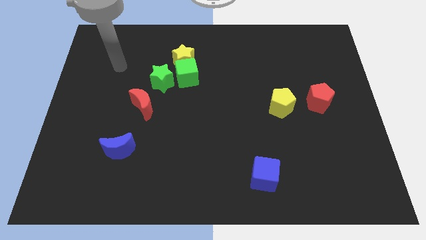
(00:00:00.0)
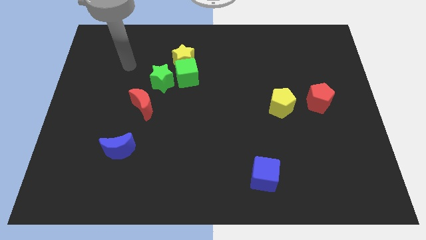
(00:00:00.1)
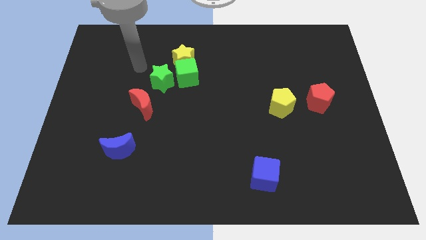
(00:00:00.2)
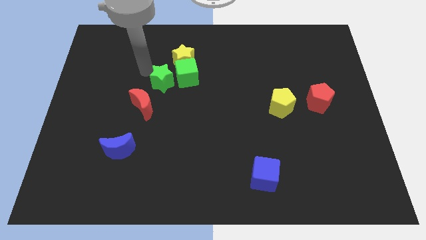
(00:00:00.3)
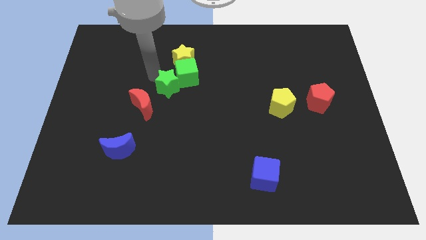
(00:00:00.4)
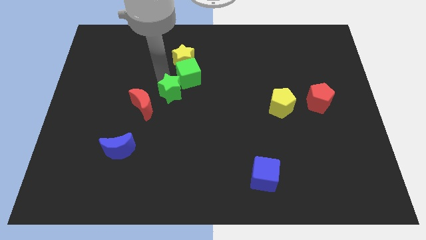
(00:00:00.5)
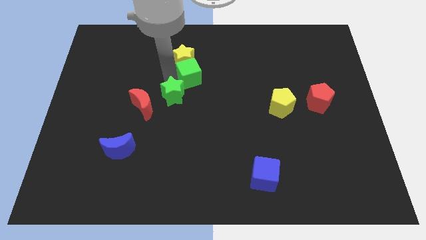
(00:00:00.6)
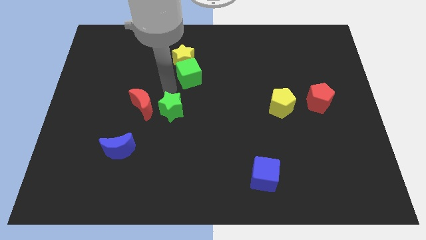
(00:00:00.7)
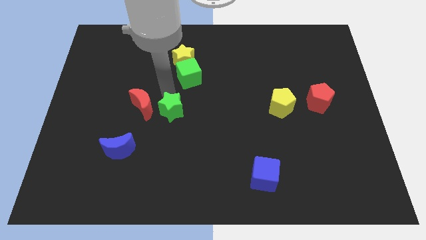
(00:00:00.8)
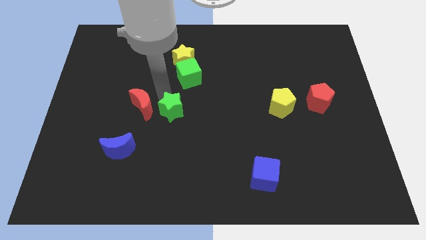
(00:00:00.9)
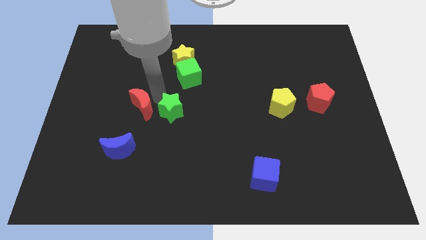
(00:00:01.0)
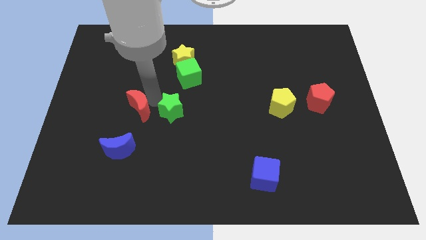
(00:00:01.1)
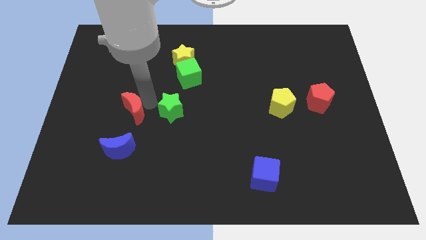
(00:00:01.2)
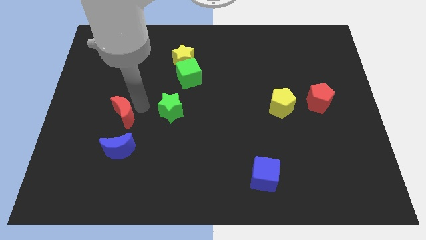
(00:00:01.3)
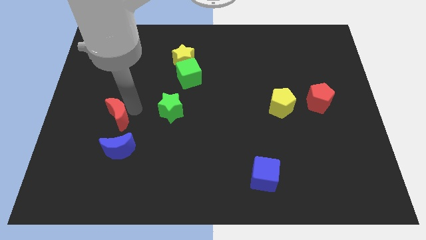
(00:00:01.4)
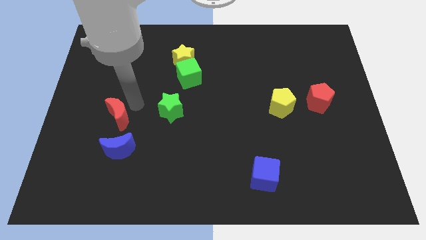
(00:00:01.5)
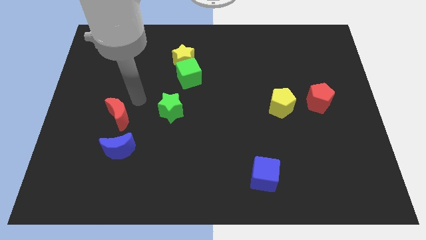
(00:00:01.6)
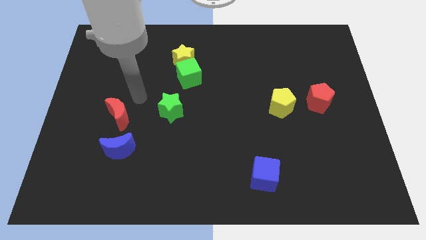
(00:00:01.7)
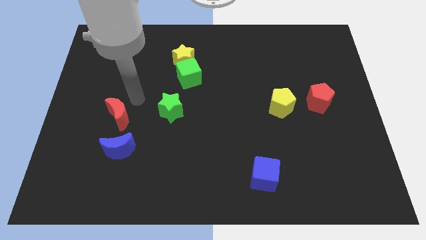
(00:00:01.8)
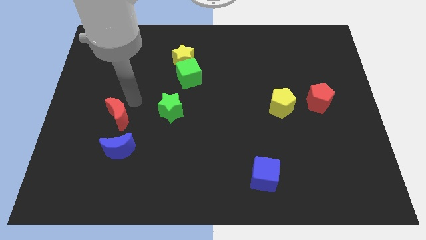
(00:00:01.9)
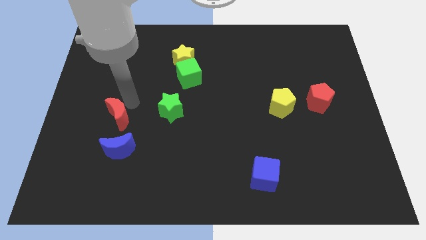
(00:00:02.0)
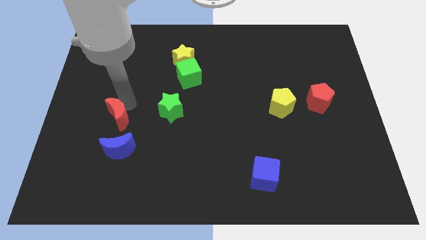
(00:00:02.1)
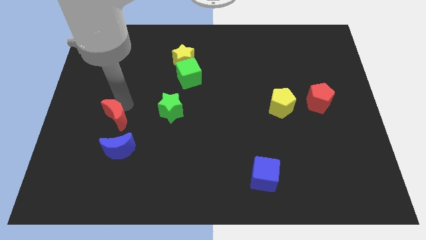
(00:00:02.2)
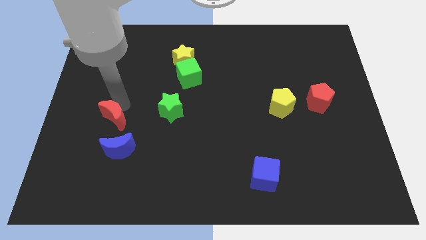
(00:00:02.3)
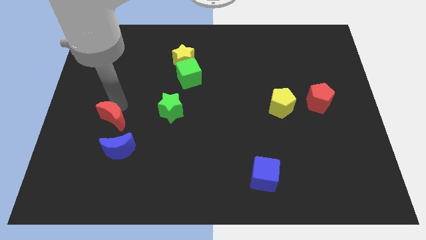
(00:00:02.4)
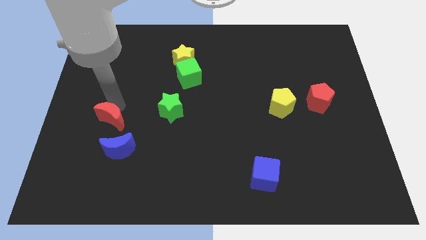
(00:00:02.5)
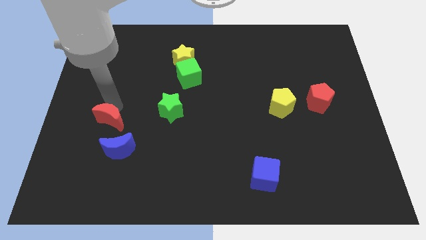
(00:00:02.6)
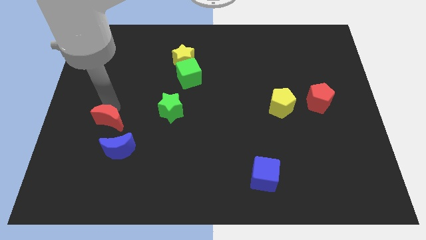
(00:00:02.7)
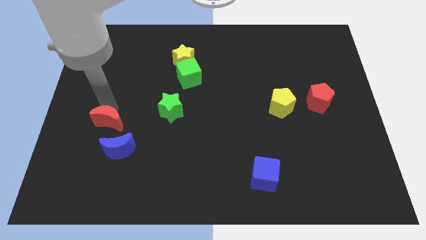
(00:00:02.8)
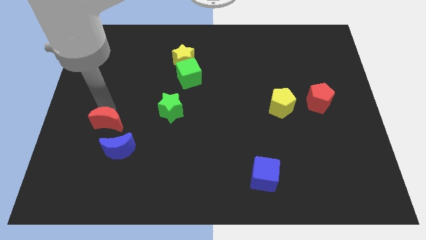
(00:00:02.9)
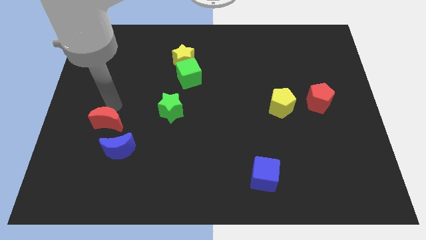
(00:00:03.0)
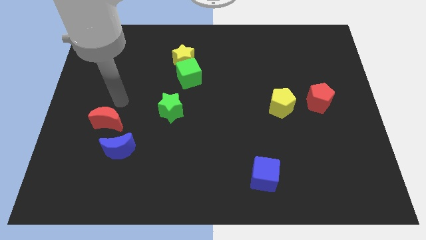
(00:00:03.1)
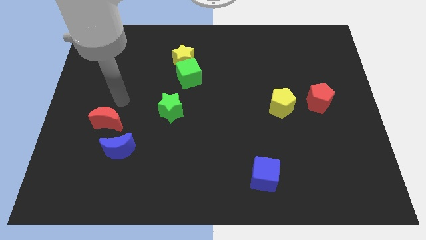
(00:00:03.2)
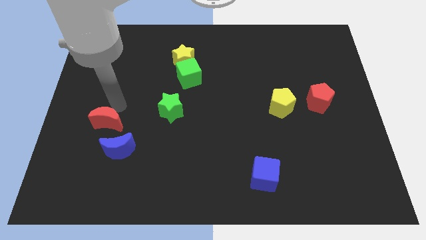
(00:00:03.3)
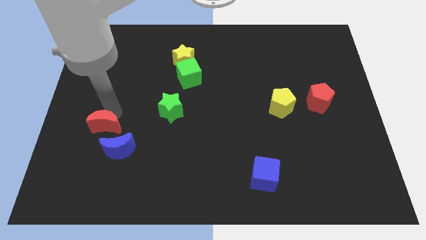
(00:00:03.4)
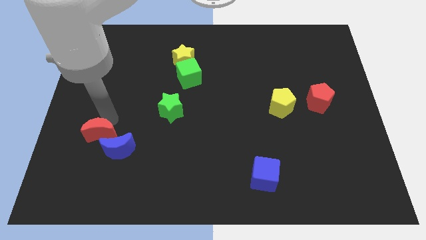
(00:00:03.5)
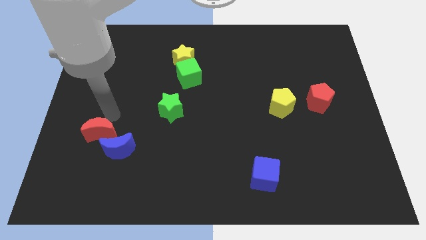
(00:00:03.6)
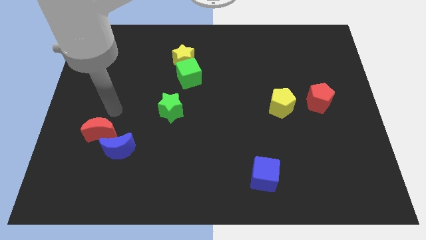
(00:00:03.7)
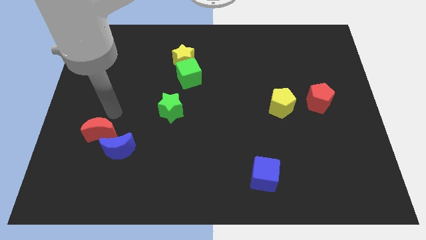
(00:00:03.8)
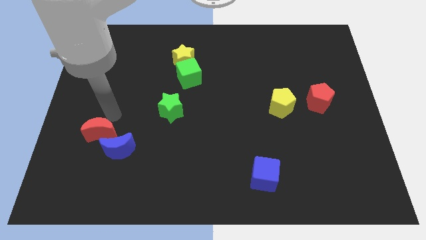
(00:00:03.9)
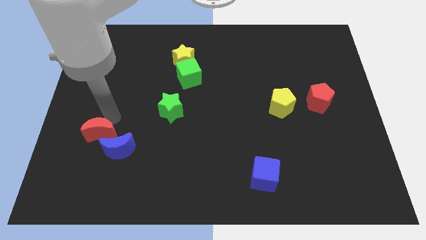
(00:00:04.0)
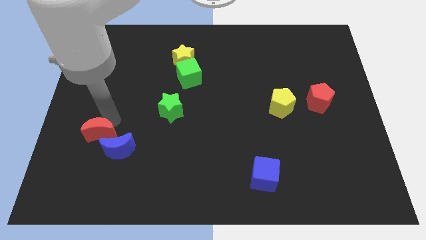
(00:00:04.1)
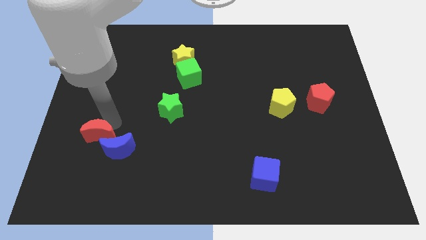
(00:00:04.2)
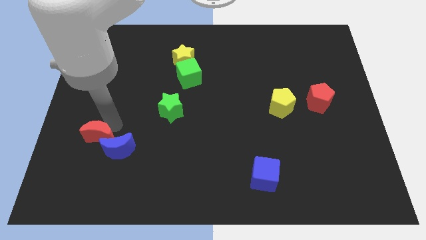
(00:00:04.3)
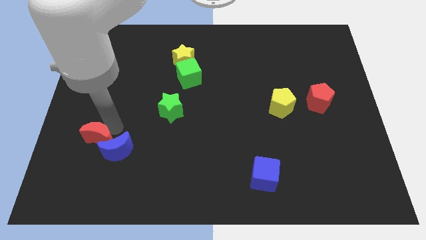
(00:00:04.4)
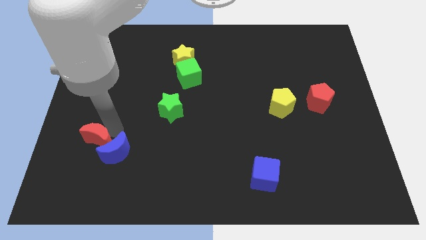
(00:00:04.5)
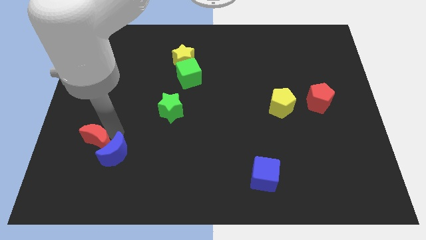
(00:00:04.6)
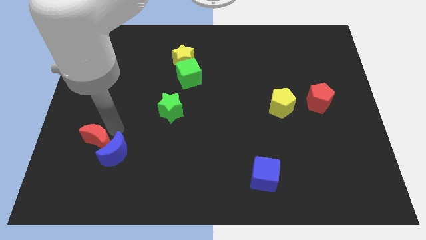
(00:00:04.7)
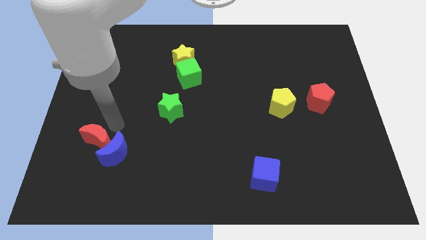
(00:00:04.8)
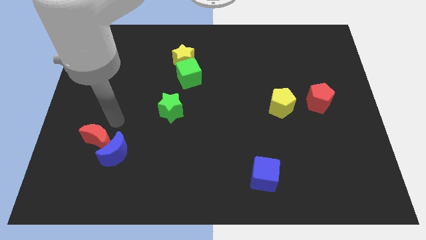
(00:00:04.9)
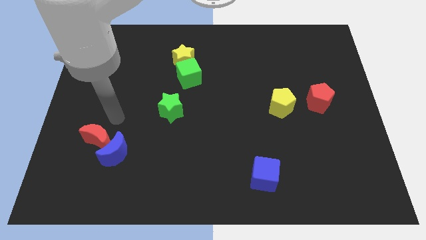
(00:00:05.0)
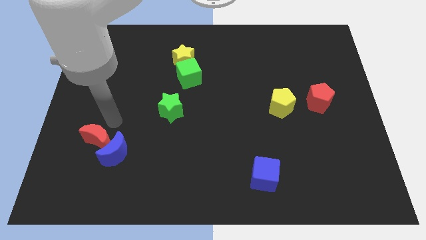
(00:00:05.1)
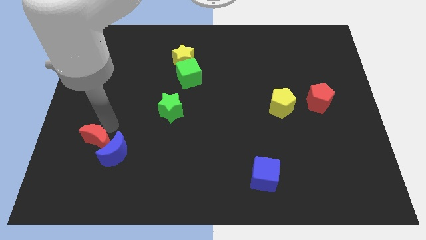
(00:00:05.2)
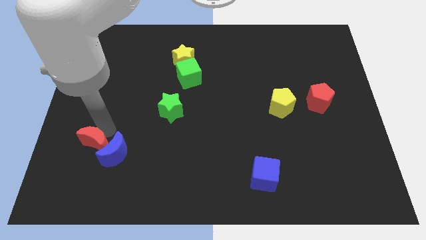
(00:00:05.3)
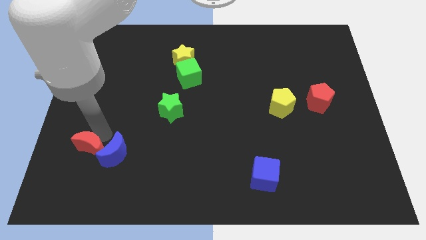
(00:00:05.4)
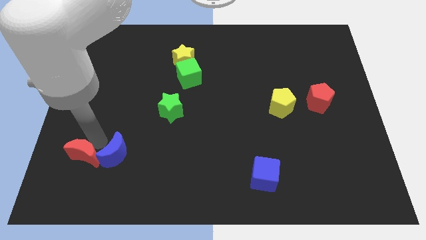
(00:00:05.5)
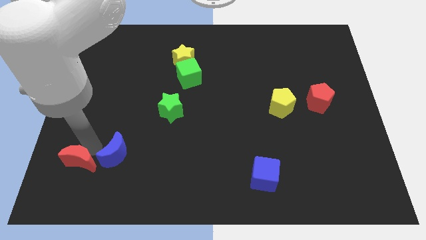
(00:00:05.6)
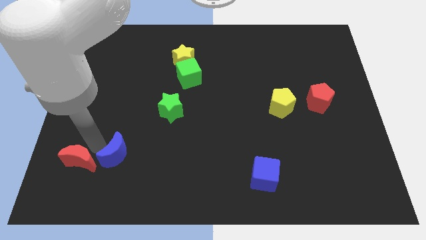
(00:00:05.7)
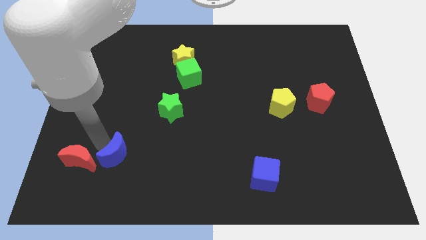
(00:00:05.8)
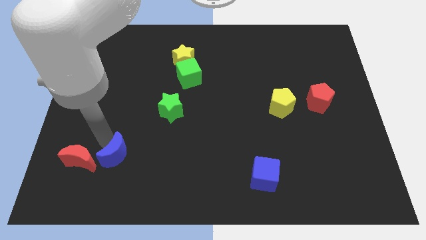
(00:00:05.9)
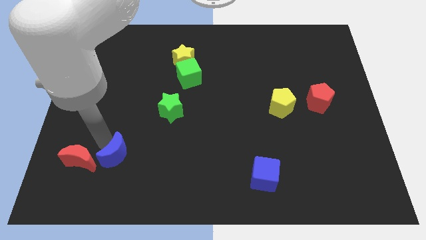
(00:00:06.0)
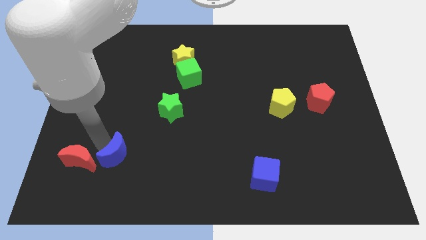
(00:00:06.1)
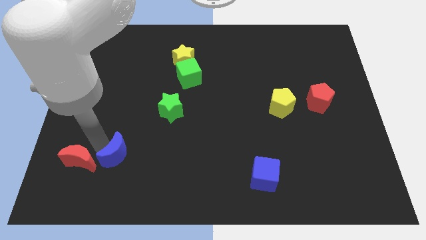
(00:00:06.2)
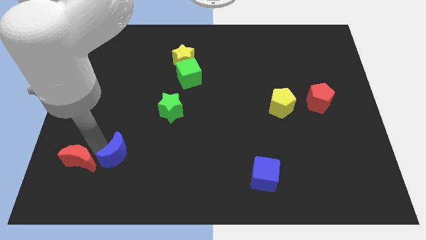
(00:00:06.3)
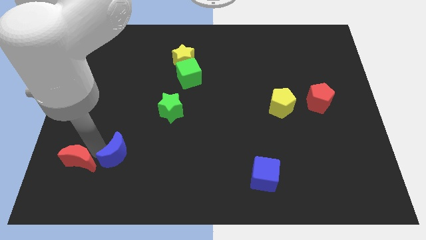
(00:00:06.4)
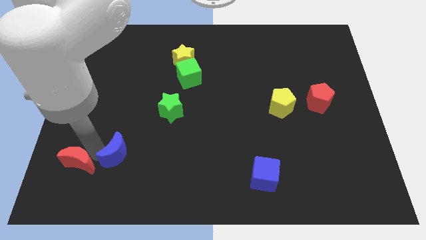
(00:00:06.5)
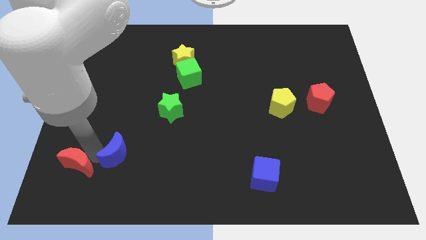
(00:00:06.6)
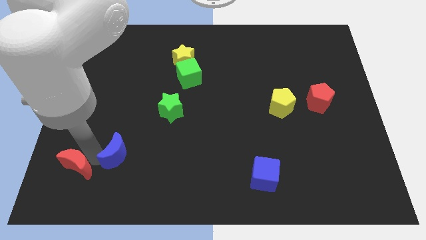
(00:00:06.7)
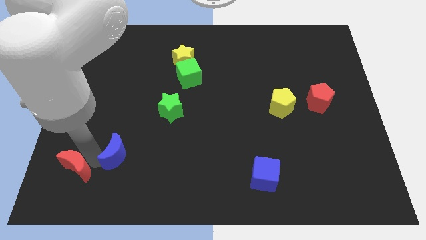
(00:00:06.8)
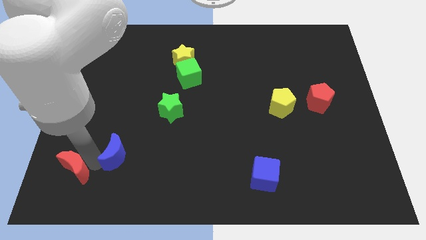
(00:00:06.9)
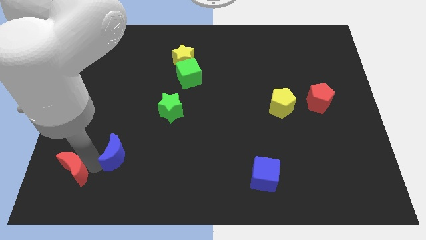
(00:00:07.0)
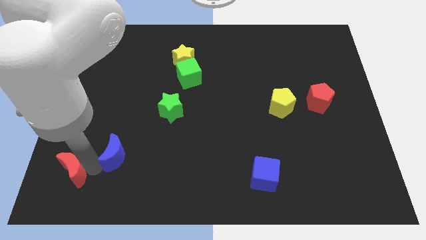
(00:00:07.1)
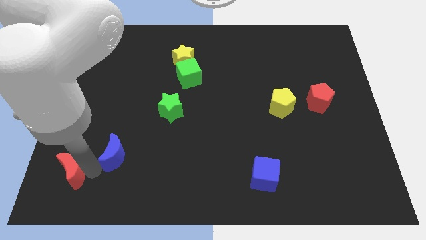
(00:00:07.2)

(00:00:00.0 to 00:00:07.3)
slide the red moon to the bottom left
